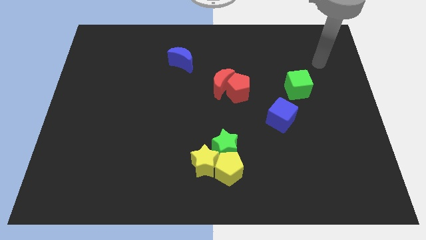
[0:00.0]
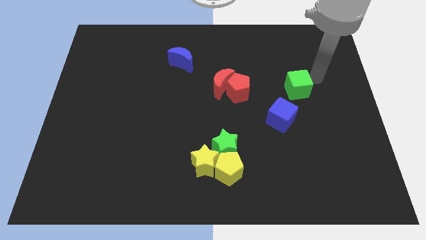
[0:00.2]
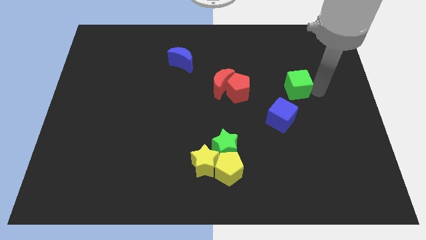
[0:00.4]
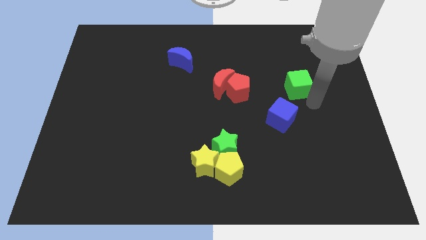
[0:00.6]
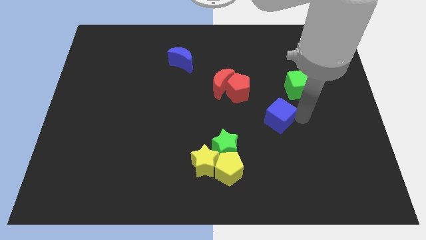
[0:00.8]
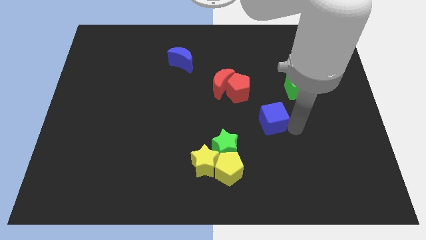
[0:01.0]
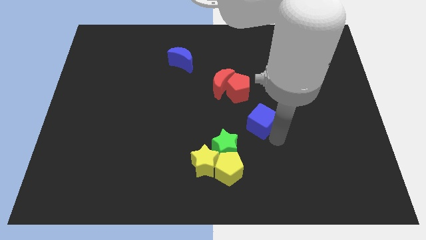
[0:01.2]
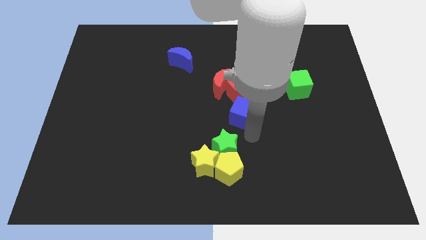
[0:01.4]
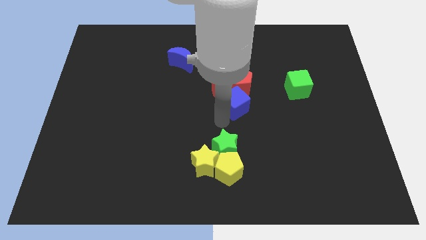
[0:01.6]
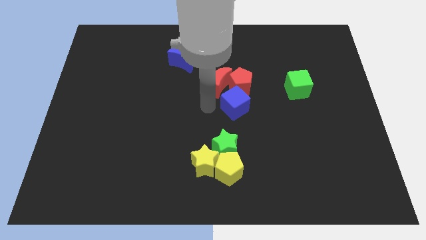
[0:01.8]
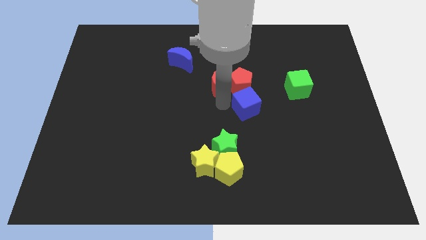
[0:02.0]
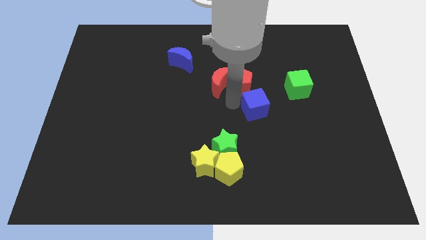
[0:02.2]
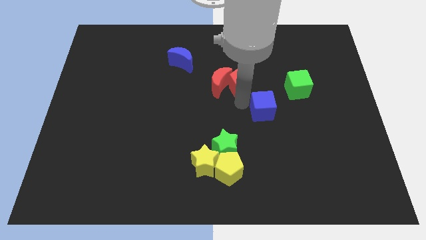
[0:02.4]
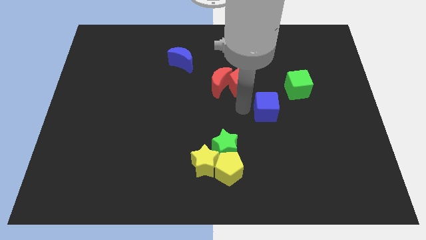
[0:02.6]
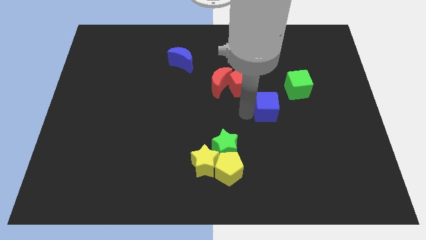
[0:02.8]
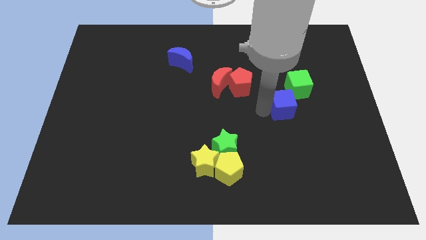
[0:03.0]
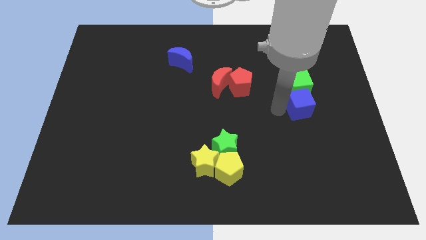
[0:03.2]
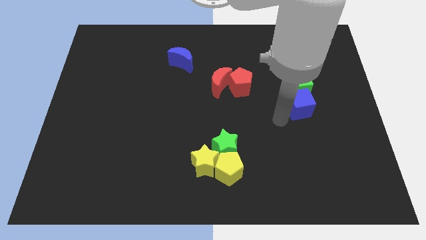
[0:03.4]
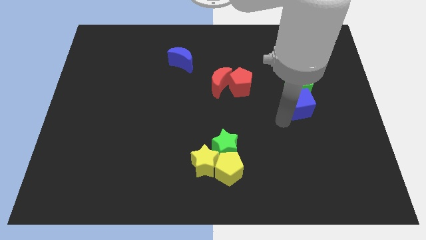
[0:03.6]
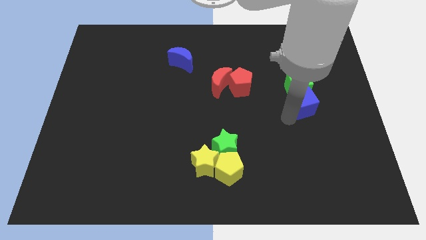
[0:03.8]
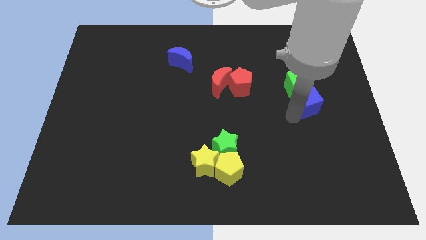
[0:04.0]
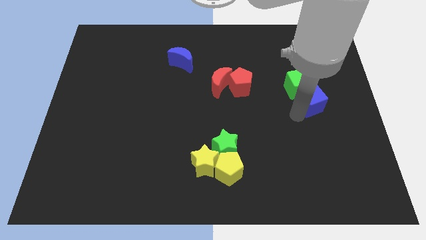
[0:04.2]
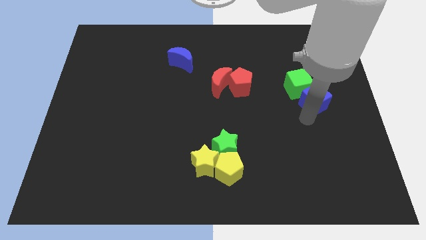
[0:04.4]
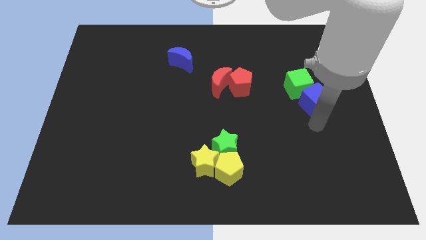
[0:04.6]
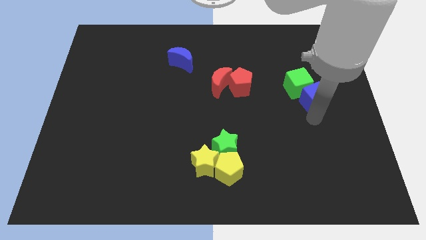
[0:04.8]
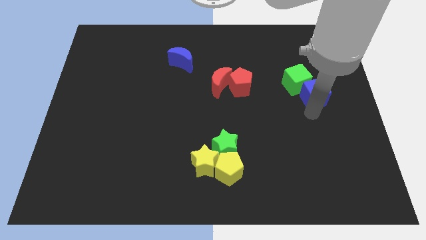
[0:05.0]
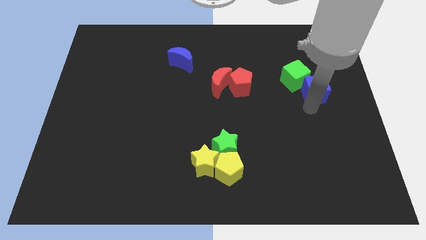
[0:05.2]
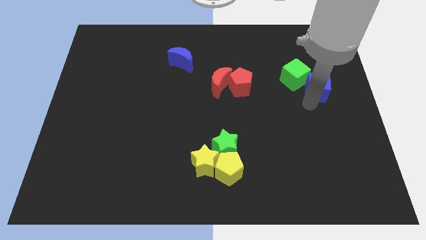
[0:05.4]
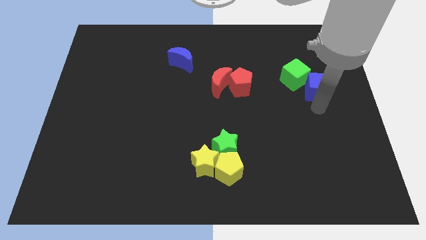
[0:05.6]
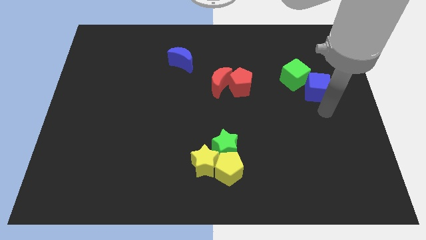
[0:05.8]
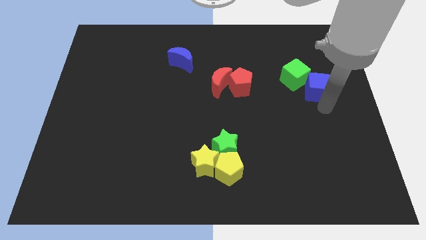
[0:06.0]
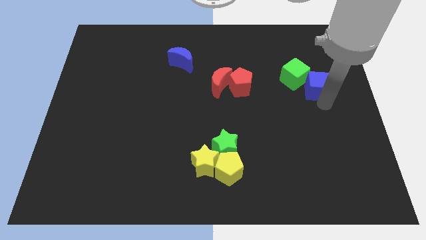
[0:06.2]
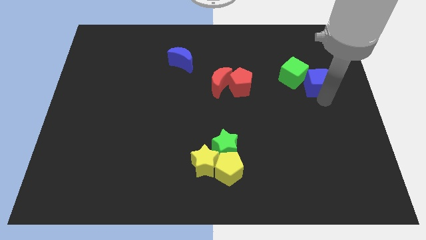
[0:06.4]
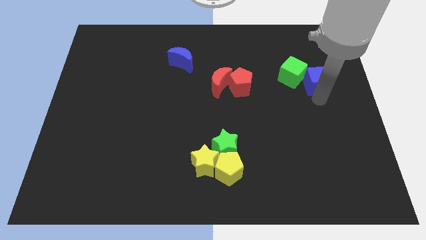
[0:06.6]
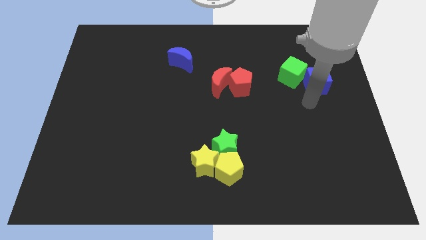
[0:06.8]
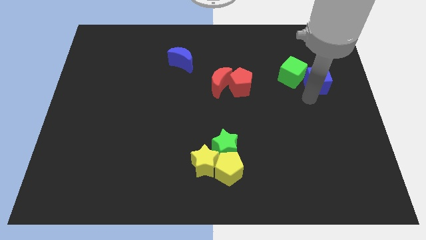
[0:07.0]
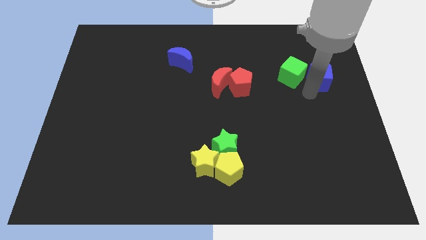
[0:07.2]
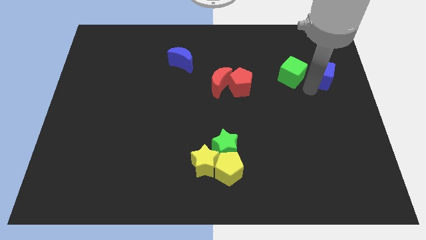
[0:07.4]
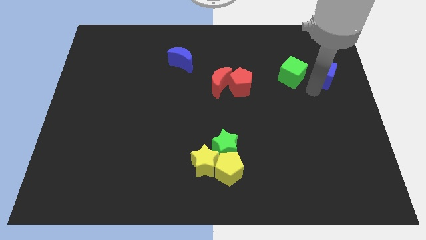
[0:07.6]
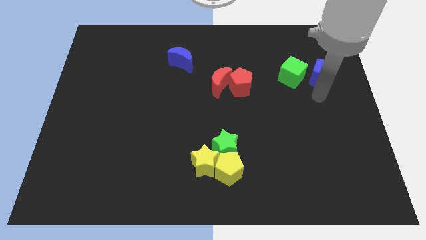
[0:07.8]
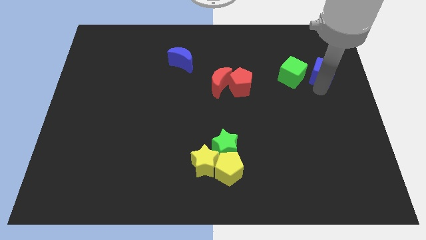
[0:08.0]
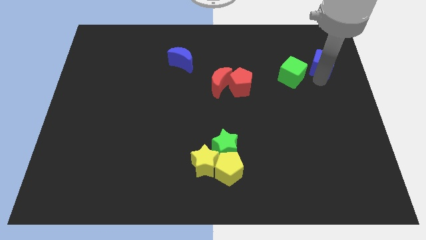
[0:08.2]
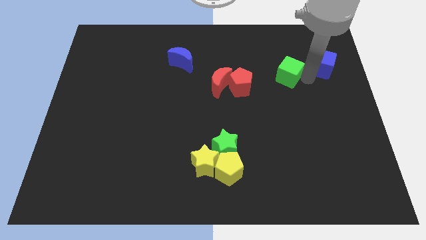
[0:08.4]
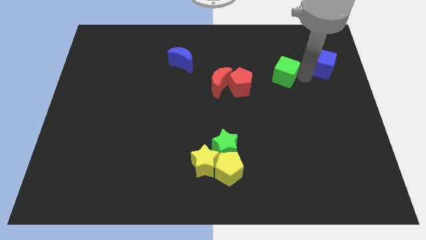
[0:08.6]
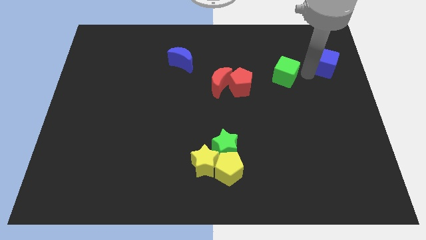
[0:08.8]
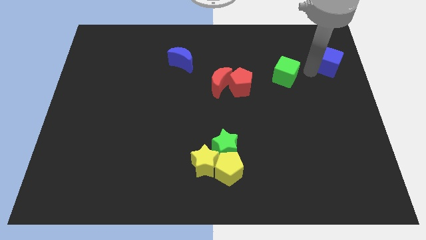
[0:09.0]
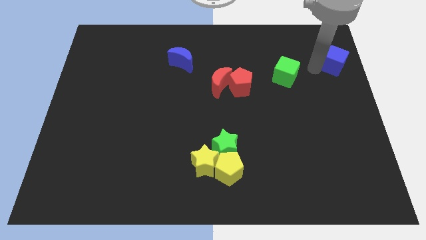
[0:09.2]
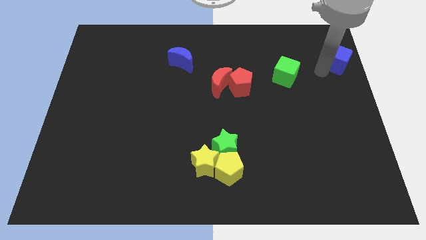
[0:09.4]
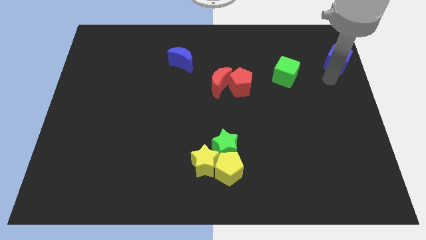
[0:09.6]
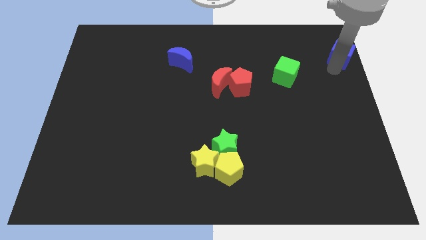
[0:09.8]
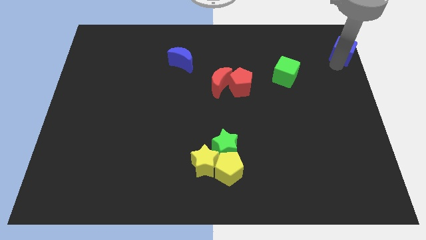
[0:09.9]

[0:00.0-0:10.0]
slide the blue cube to the upper right corner

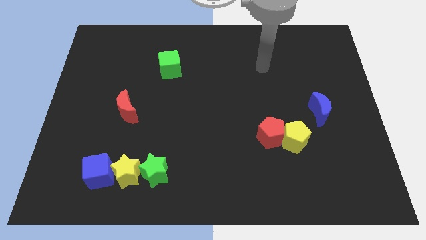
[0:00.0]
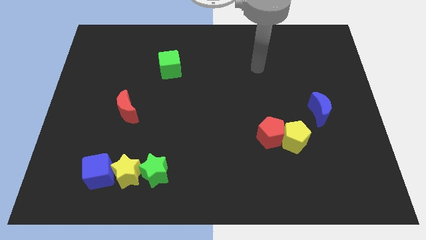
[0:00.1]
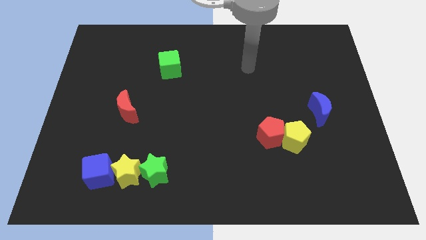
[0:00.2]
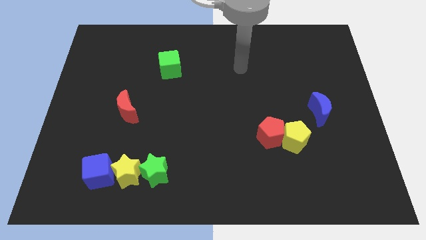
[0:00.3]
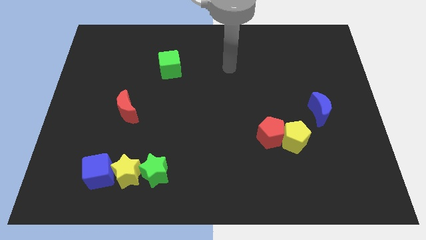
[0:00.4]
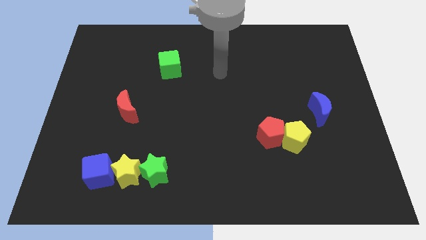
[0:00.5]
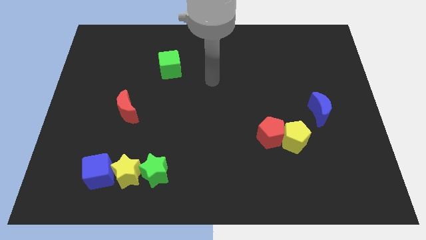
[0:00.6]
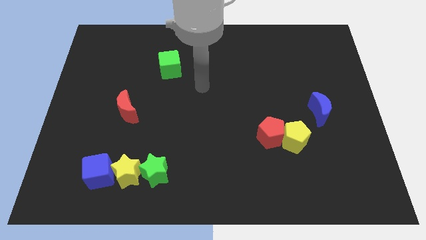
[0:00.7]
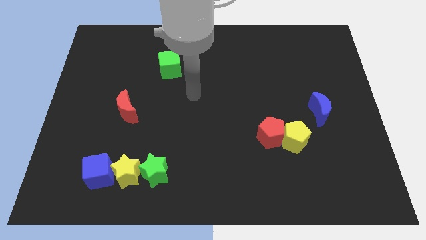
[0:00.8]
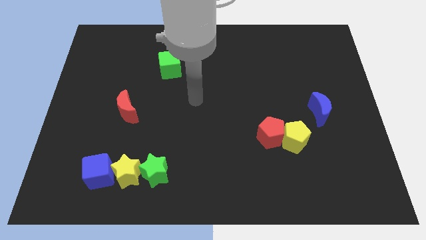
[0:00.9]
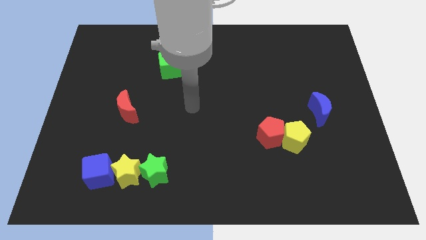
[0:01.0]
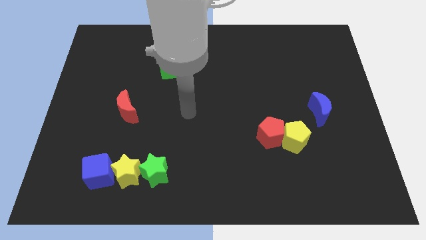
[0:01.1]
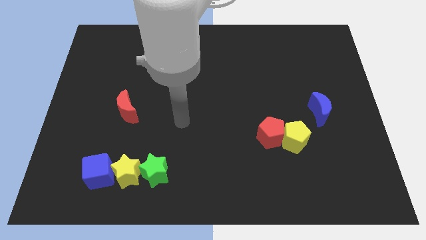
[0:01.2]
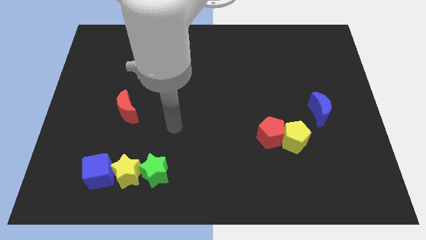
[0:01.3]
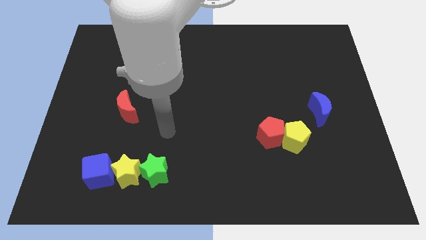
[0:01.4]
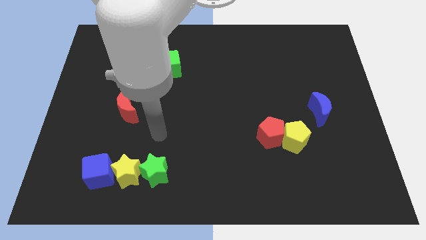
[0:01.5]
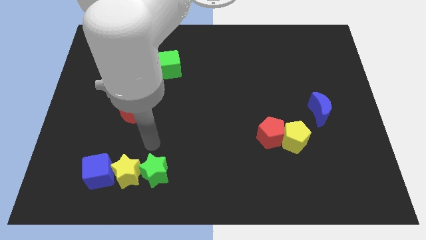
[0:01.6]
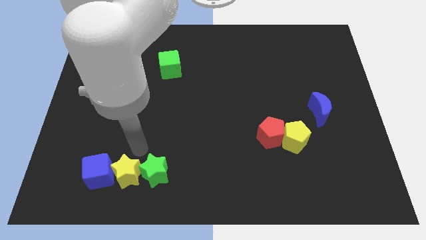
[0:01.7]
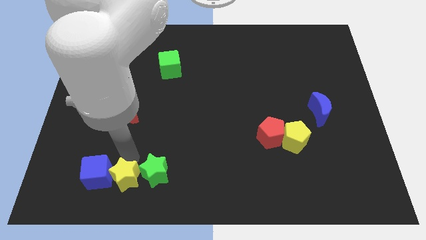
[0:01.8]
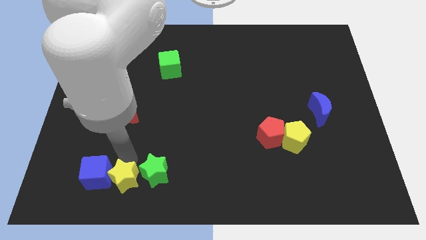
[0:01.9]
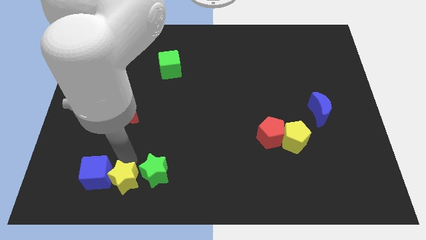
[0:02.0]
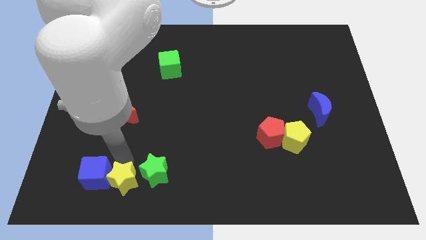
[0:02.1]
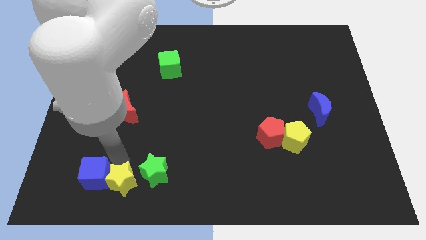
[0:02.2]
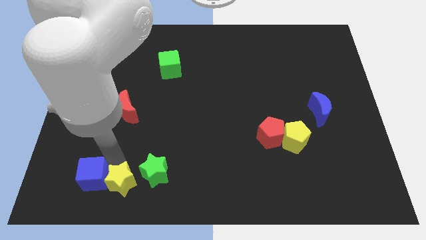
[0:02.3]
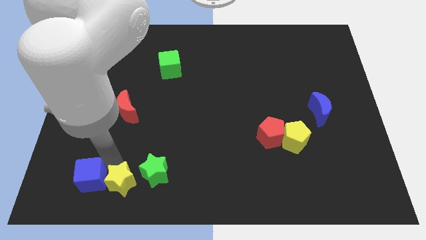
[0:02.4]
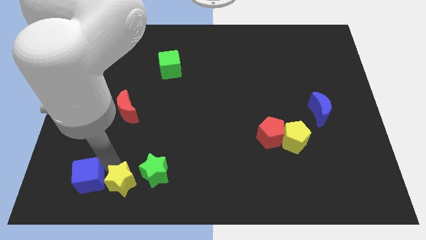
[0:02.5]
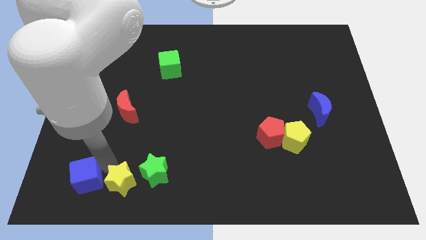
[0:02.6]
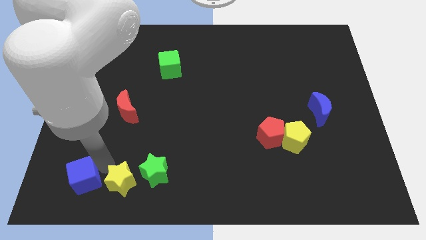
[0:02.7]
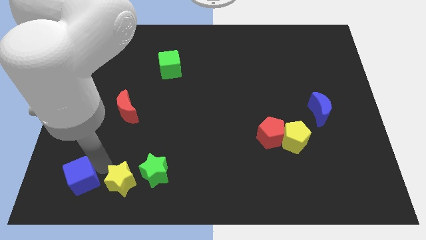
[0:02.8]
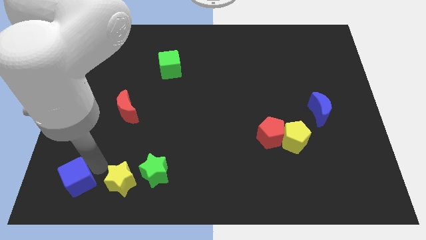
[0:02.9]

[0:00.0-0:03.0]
slide the blue cube to the bottom left corner
